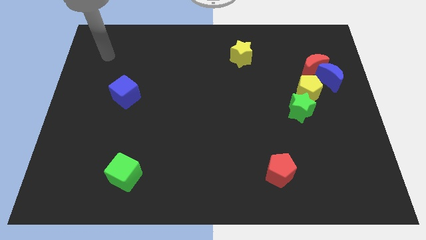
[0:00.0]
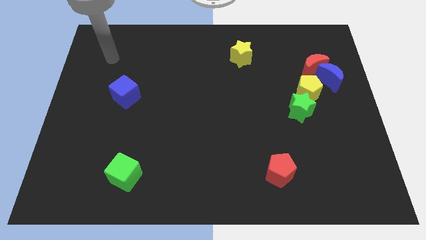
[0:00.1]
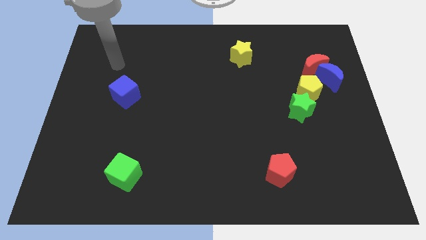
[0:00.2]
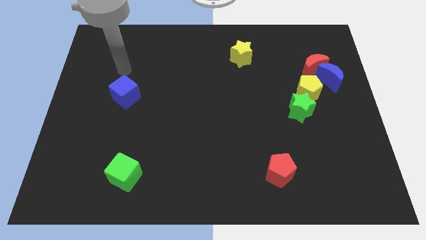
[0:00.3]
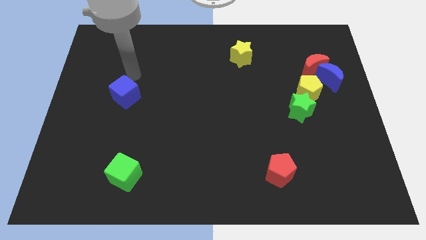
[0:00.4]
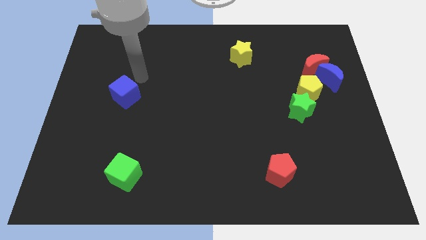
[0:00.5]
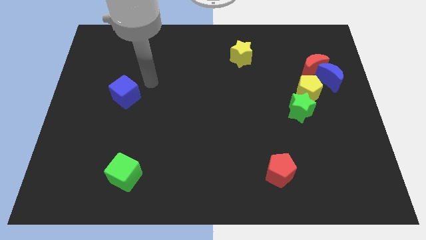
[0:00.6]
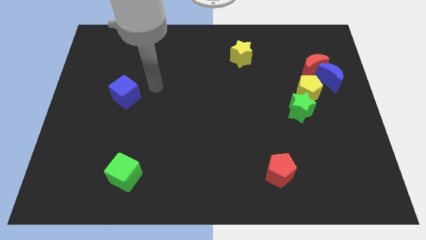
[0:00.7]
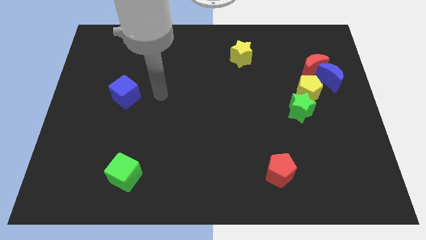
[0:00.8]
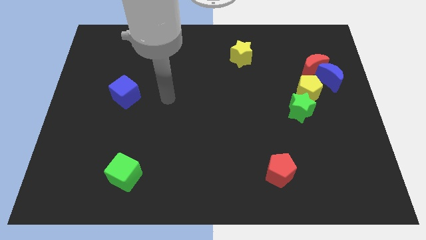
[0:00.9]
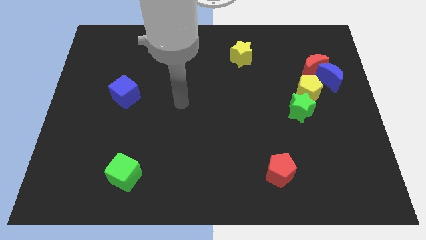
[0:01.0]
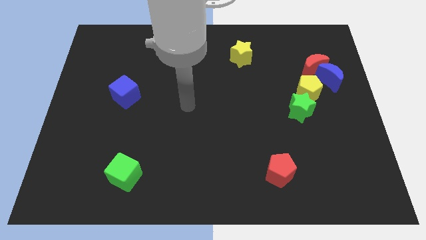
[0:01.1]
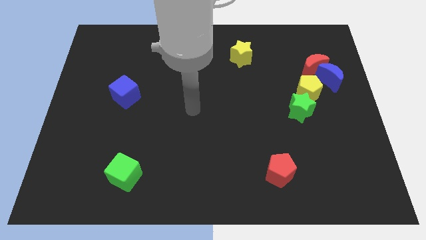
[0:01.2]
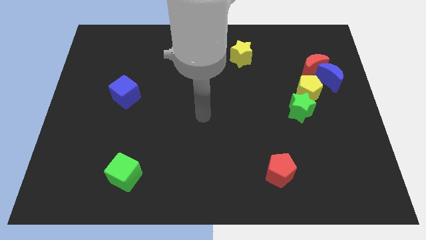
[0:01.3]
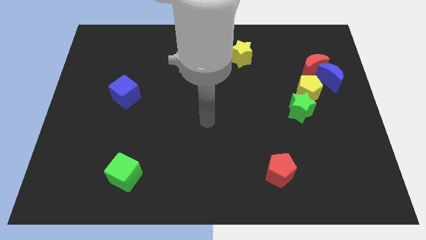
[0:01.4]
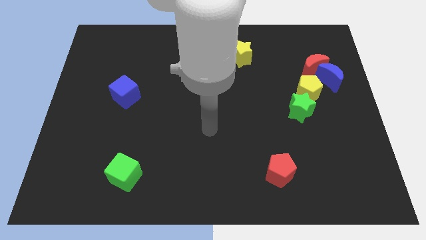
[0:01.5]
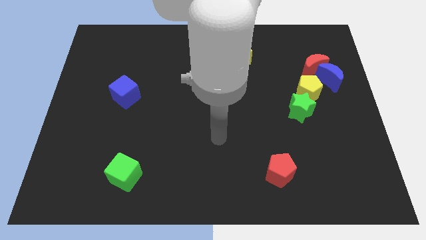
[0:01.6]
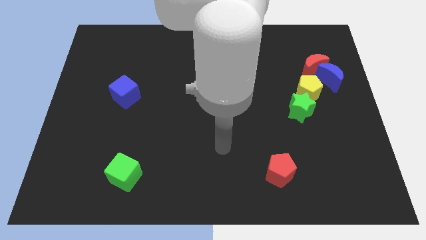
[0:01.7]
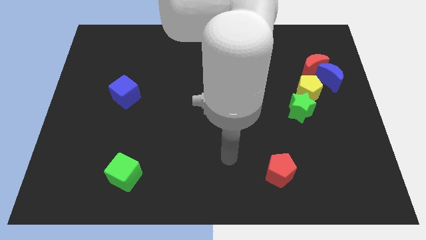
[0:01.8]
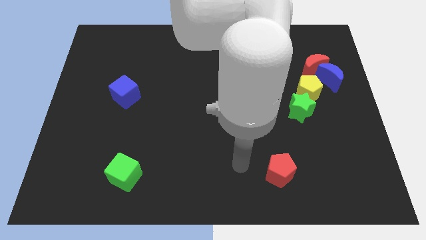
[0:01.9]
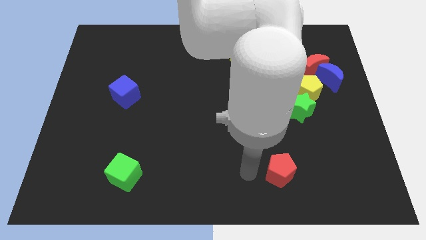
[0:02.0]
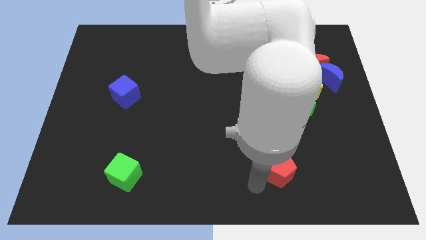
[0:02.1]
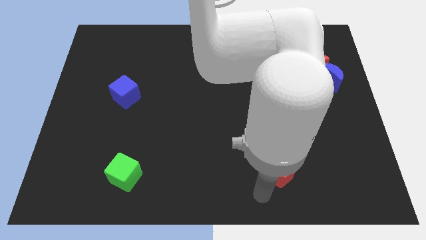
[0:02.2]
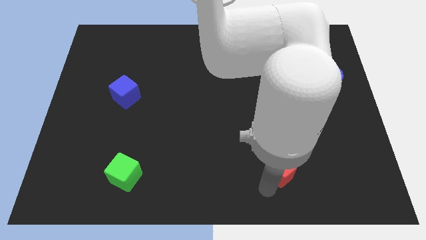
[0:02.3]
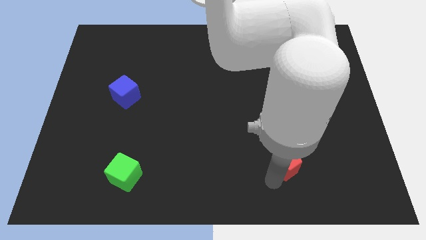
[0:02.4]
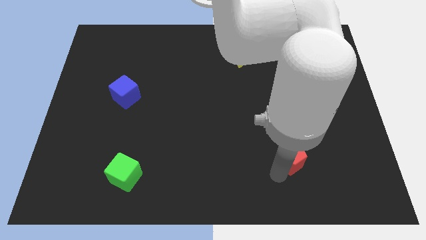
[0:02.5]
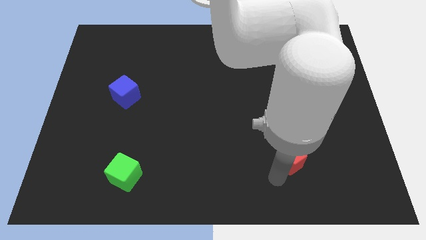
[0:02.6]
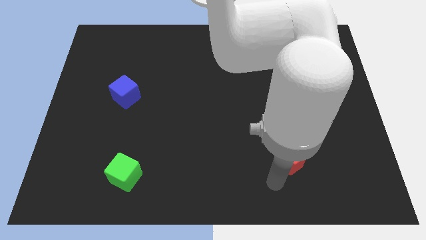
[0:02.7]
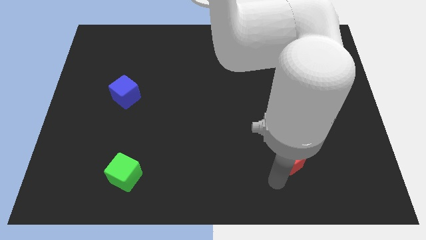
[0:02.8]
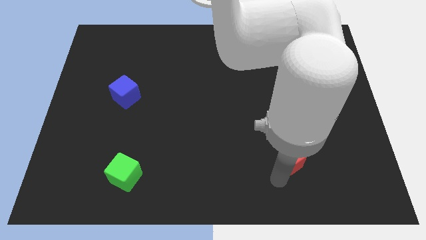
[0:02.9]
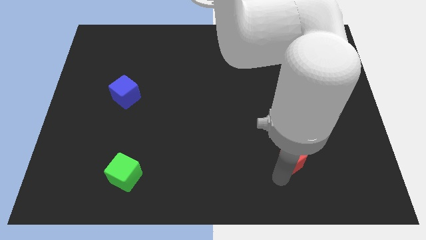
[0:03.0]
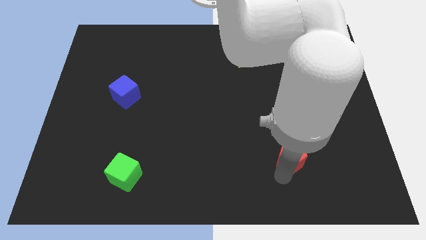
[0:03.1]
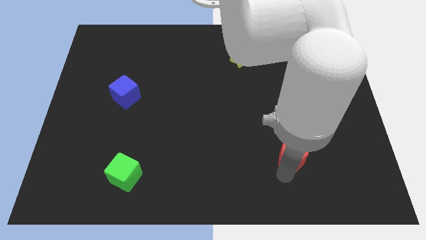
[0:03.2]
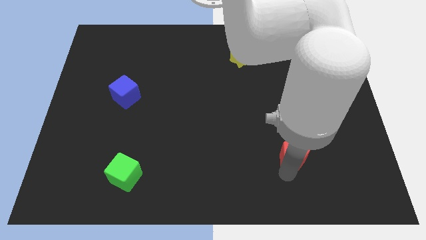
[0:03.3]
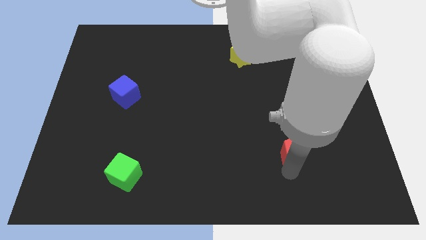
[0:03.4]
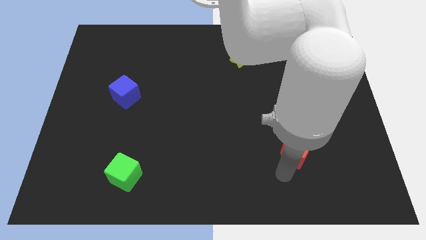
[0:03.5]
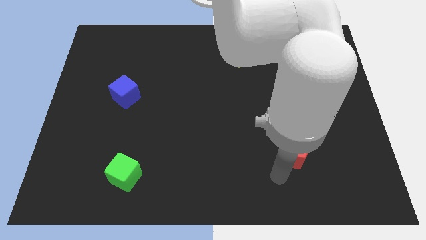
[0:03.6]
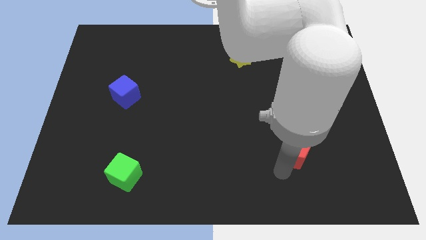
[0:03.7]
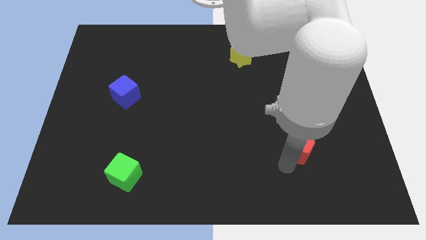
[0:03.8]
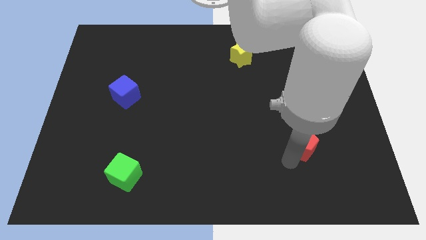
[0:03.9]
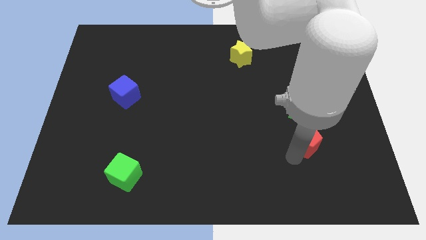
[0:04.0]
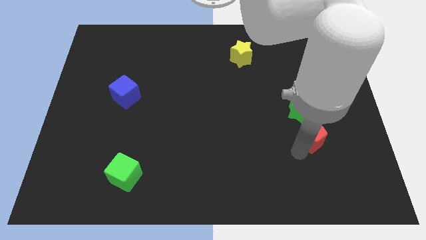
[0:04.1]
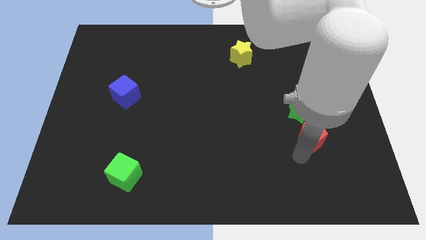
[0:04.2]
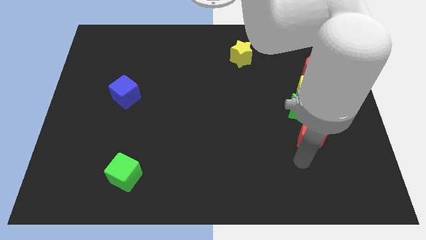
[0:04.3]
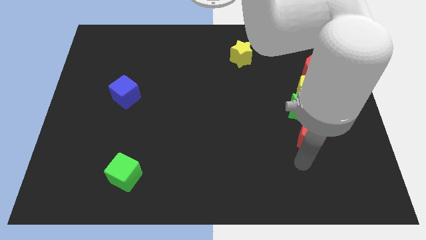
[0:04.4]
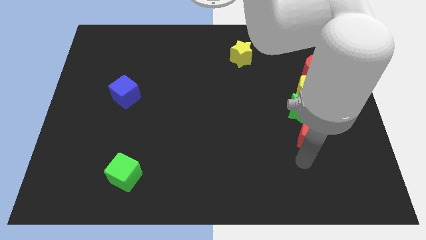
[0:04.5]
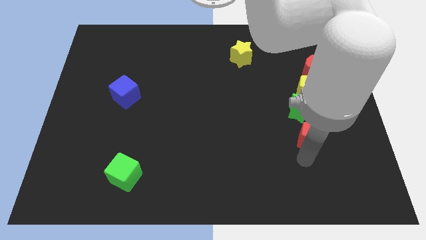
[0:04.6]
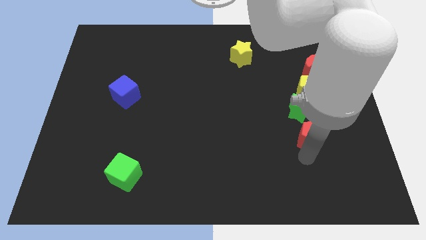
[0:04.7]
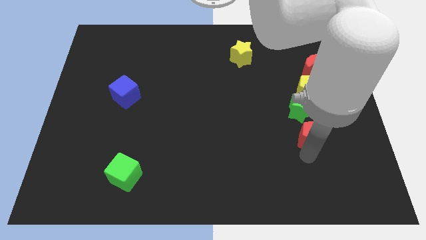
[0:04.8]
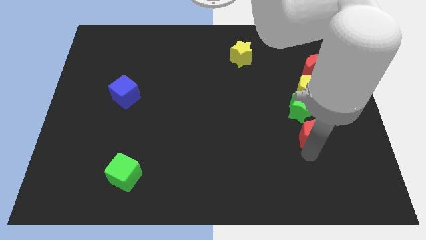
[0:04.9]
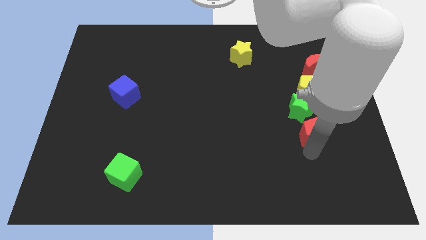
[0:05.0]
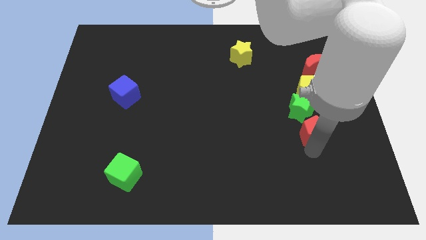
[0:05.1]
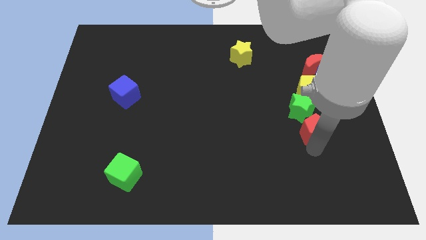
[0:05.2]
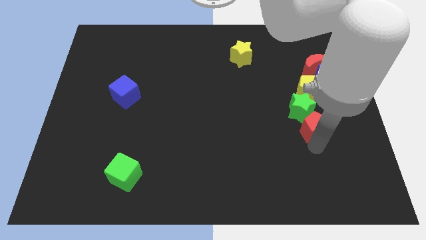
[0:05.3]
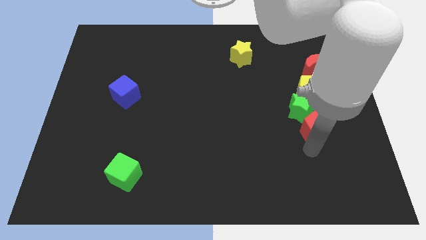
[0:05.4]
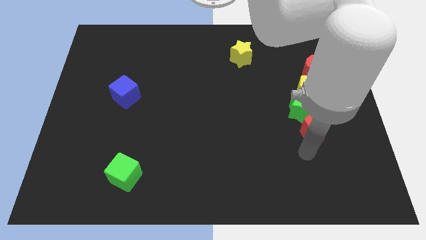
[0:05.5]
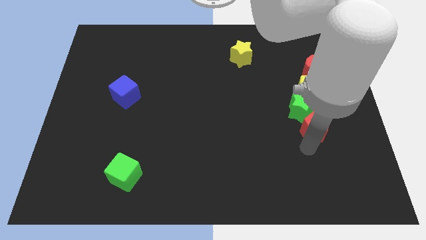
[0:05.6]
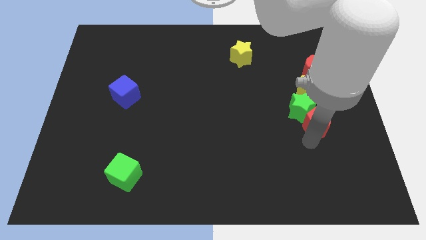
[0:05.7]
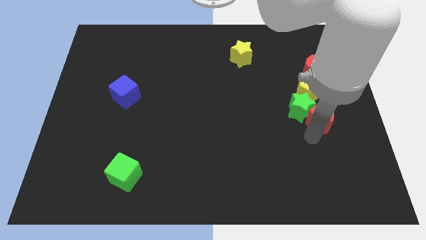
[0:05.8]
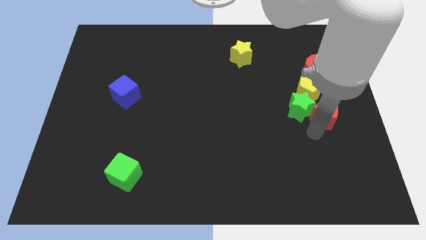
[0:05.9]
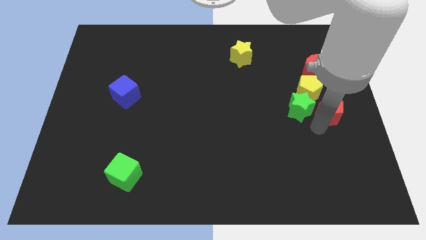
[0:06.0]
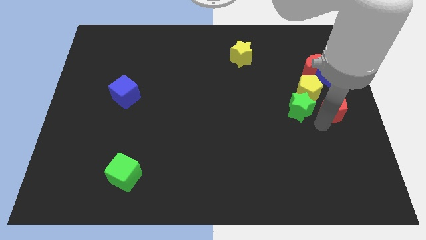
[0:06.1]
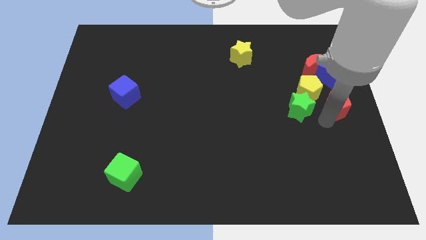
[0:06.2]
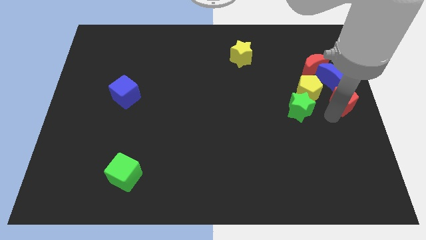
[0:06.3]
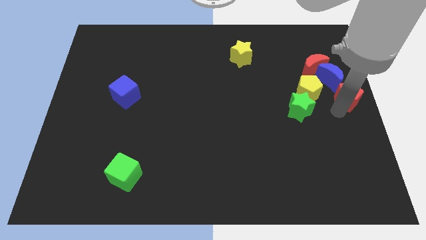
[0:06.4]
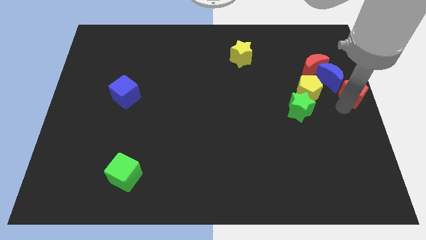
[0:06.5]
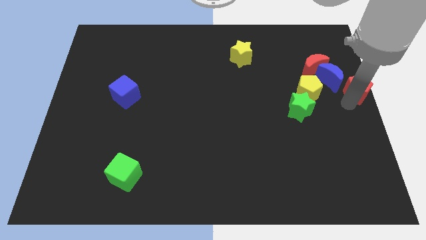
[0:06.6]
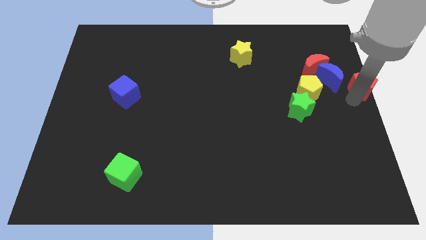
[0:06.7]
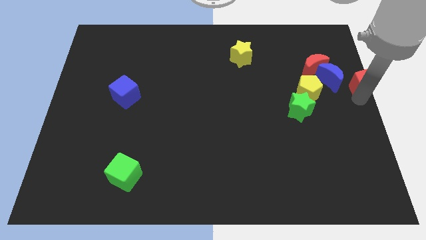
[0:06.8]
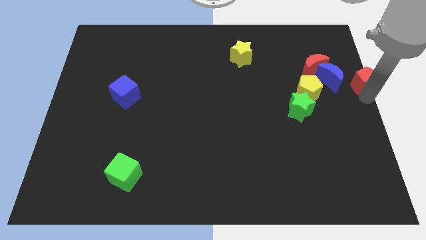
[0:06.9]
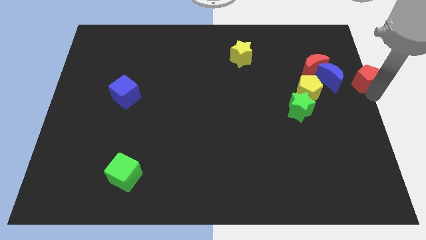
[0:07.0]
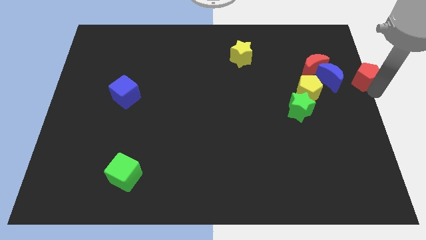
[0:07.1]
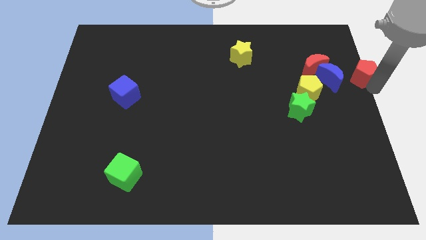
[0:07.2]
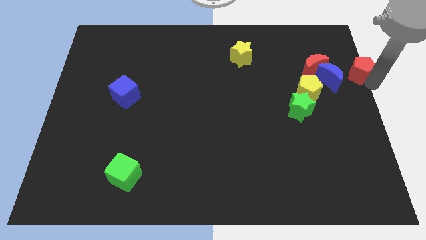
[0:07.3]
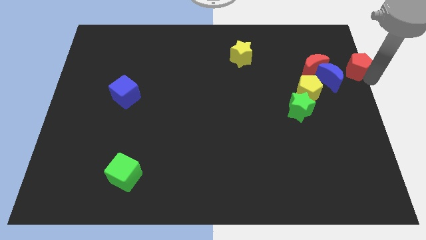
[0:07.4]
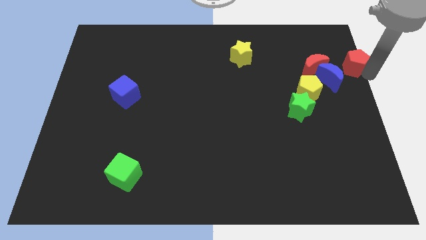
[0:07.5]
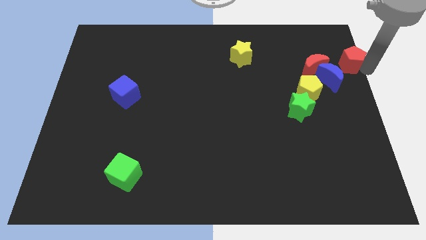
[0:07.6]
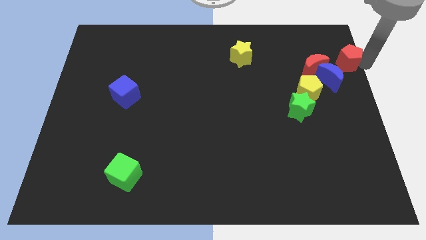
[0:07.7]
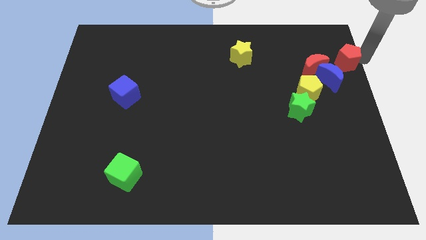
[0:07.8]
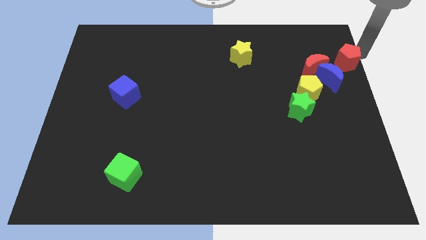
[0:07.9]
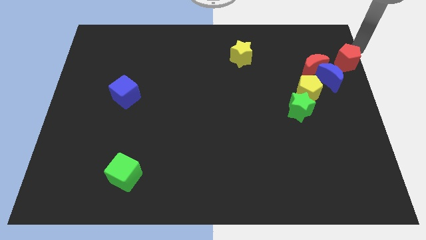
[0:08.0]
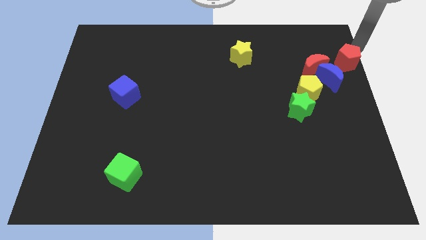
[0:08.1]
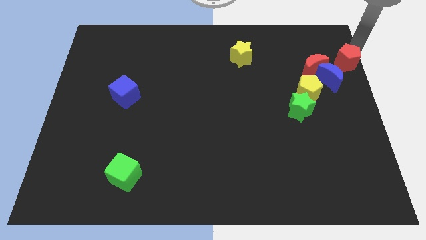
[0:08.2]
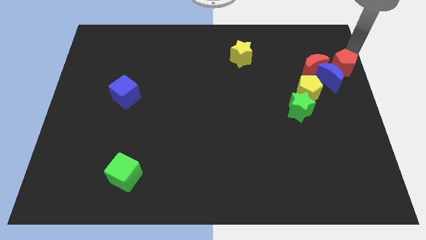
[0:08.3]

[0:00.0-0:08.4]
slide the red pentagon to the blue moon
